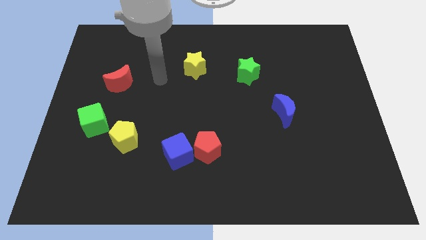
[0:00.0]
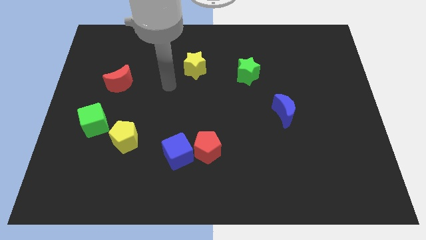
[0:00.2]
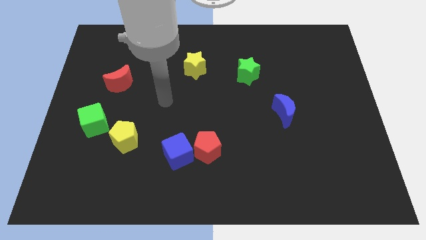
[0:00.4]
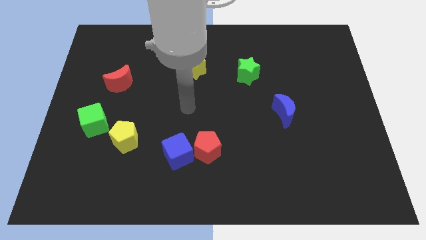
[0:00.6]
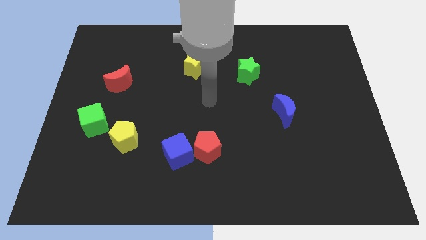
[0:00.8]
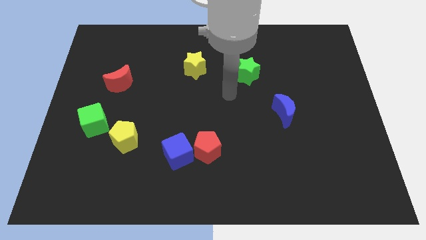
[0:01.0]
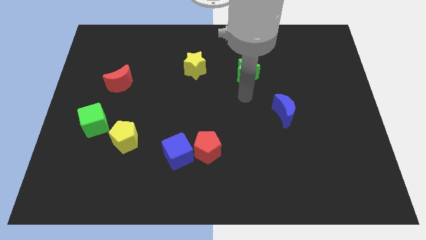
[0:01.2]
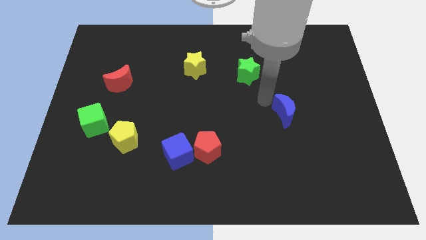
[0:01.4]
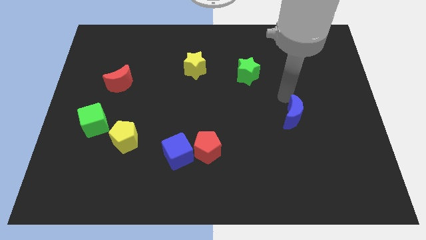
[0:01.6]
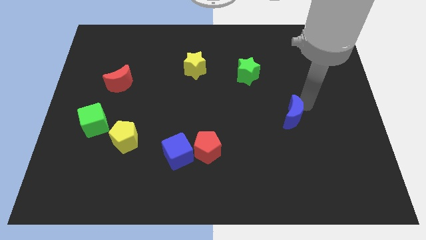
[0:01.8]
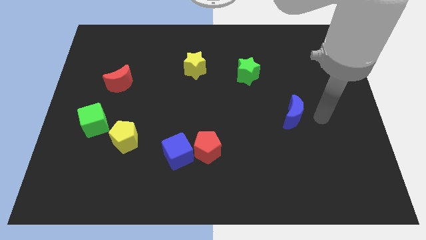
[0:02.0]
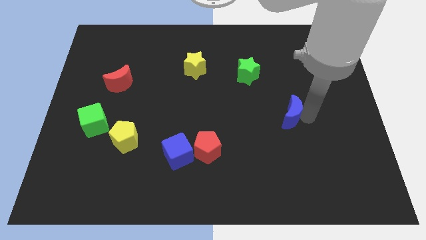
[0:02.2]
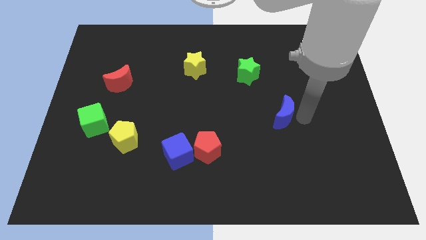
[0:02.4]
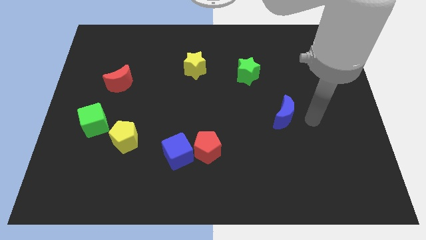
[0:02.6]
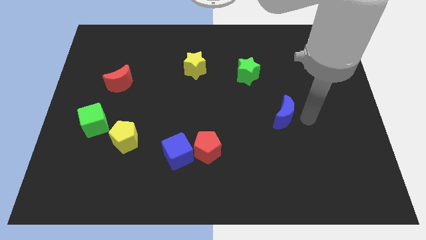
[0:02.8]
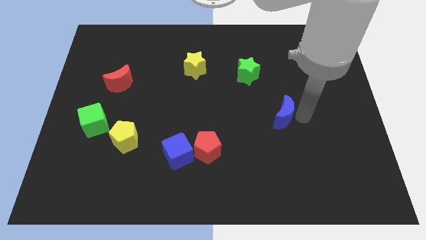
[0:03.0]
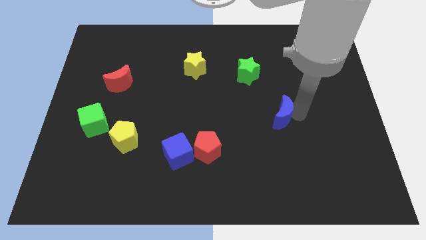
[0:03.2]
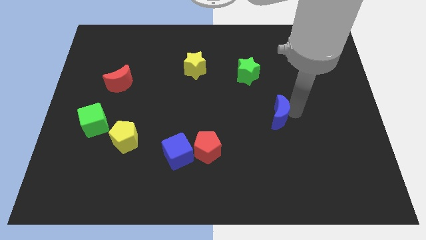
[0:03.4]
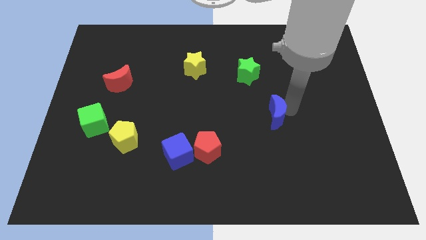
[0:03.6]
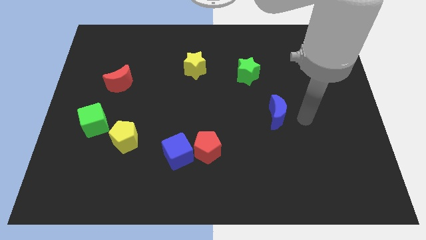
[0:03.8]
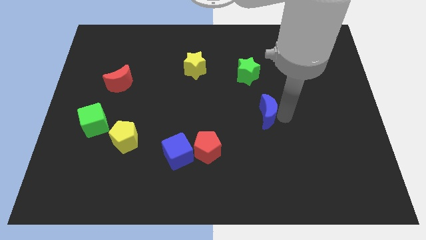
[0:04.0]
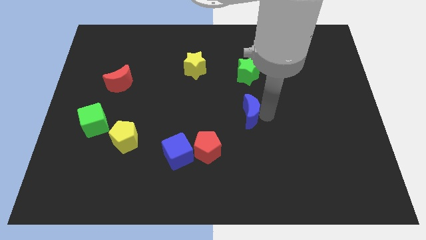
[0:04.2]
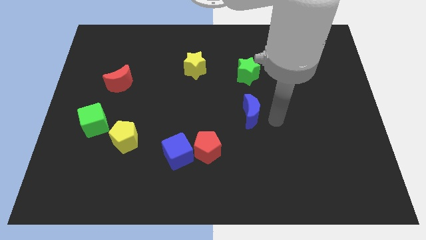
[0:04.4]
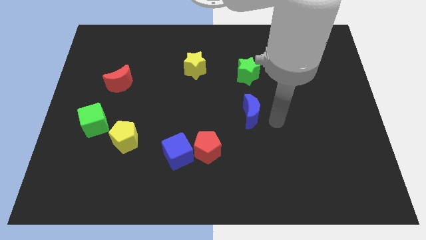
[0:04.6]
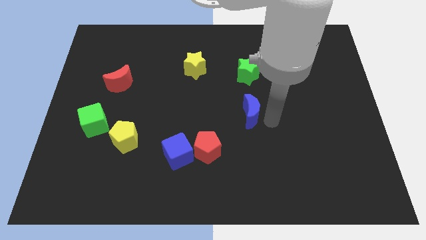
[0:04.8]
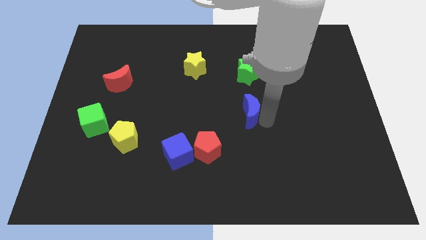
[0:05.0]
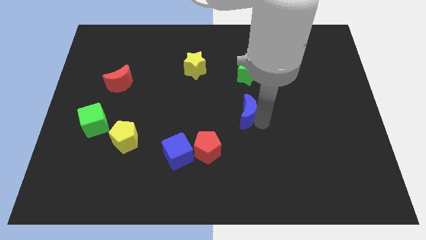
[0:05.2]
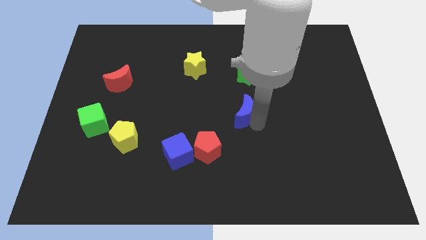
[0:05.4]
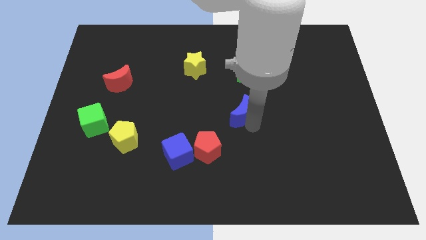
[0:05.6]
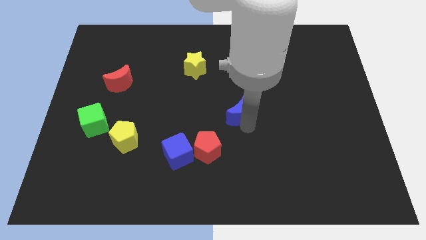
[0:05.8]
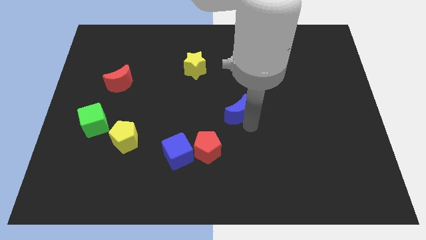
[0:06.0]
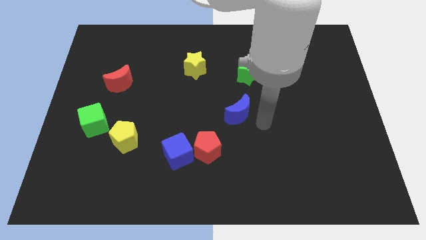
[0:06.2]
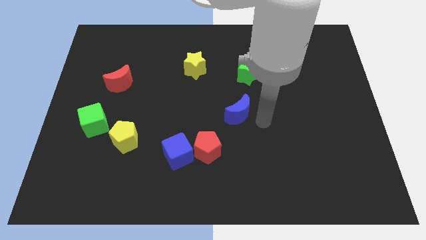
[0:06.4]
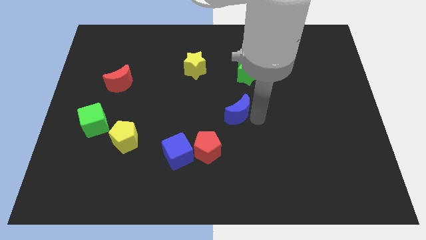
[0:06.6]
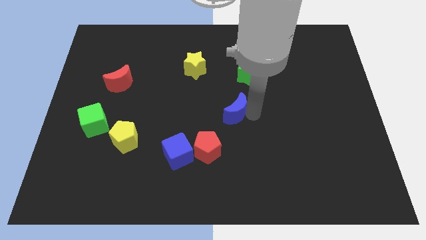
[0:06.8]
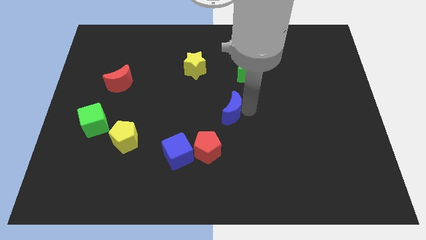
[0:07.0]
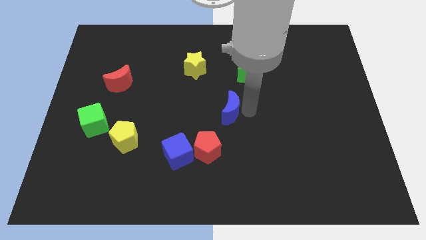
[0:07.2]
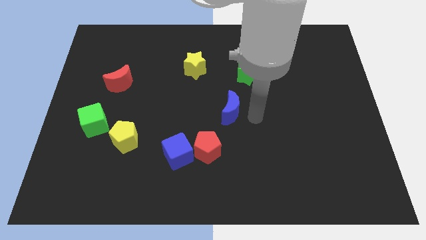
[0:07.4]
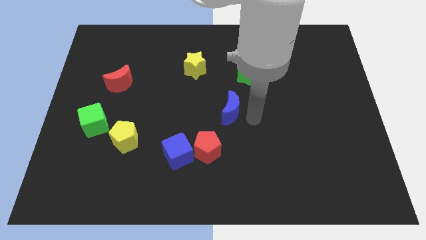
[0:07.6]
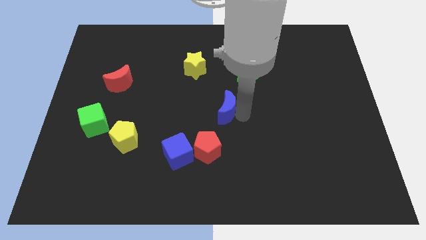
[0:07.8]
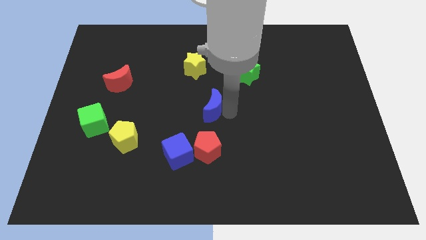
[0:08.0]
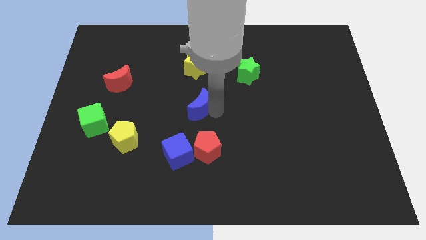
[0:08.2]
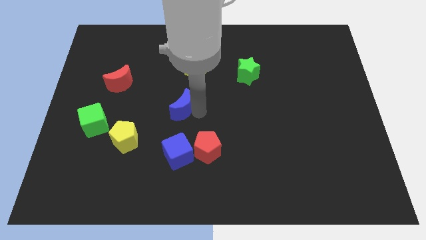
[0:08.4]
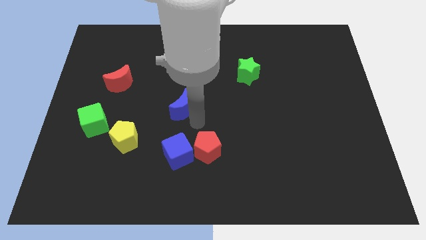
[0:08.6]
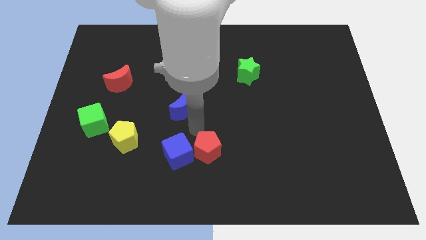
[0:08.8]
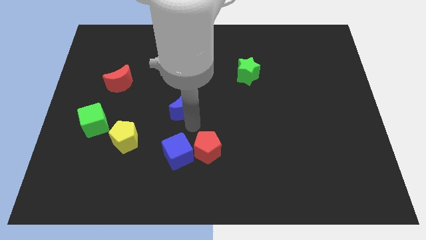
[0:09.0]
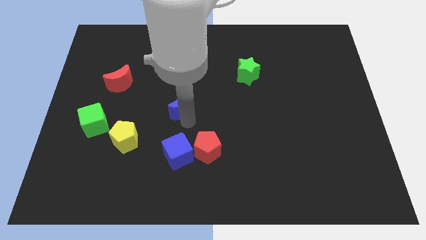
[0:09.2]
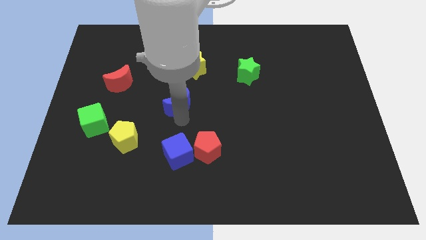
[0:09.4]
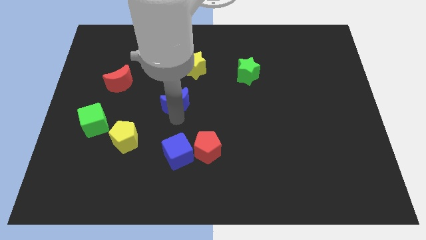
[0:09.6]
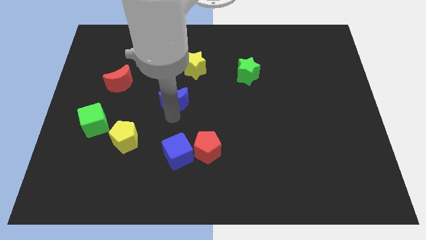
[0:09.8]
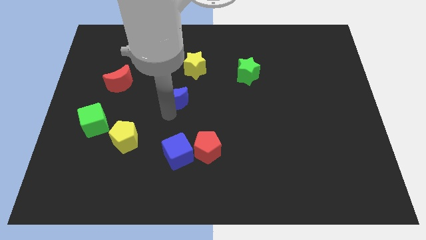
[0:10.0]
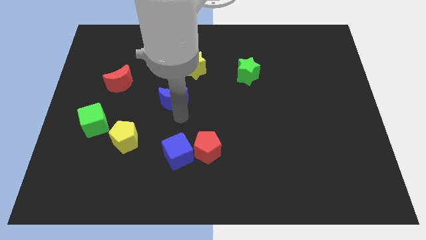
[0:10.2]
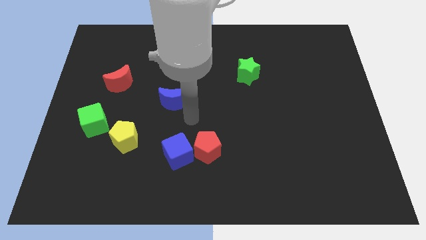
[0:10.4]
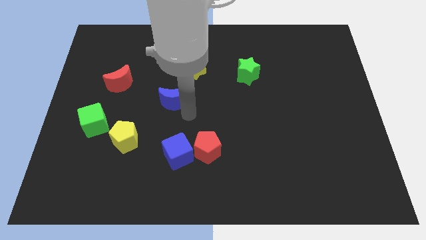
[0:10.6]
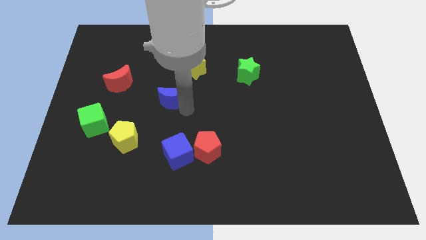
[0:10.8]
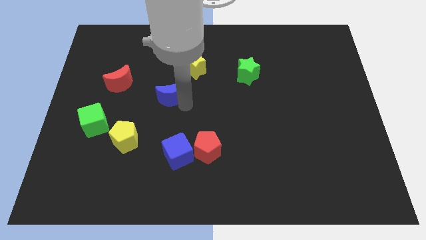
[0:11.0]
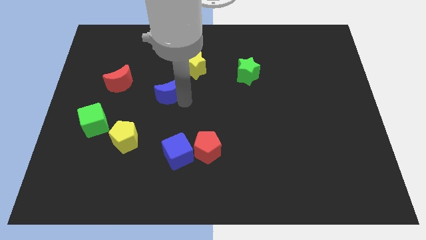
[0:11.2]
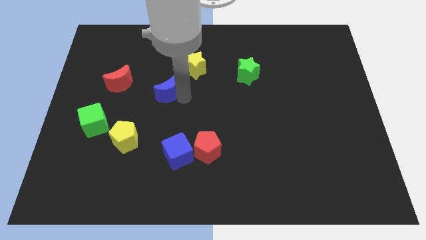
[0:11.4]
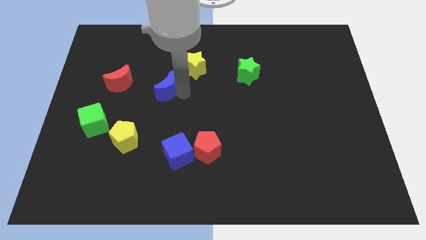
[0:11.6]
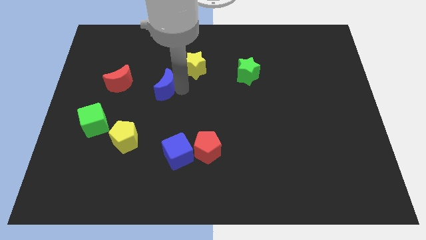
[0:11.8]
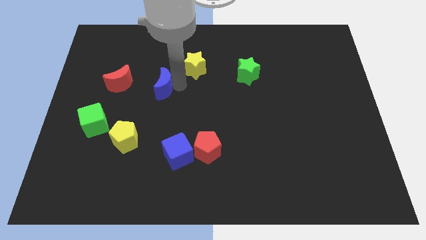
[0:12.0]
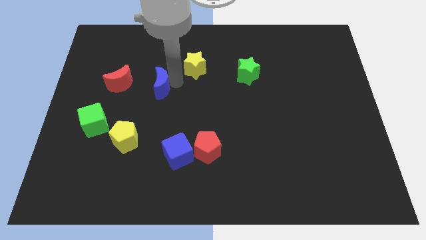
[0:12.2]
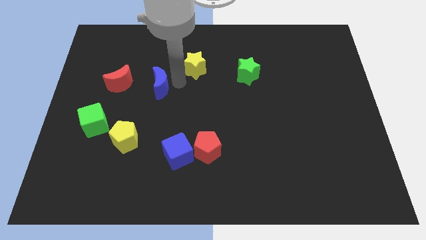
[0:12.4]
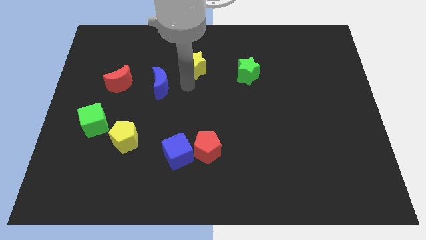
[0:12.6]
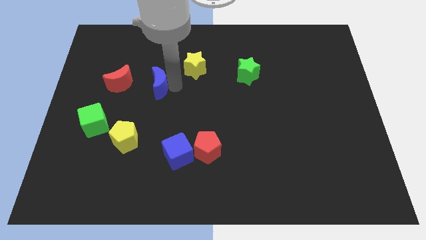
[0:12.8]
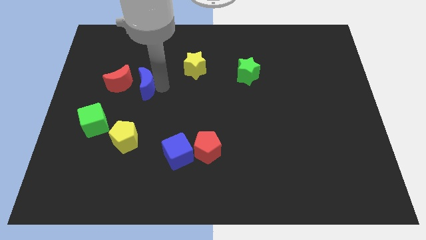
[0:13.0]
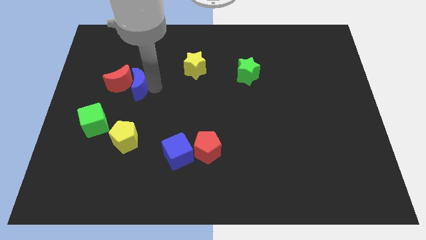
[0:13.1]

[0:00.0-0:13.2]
move the blue moon to the red moon

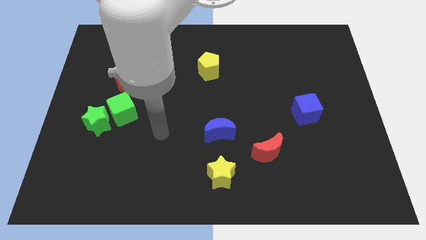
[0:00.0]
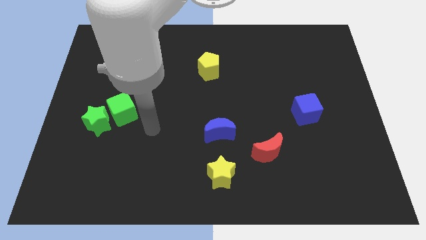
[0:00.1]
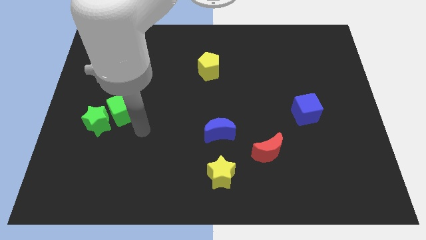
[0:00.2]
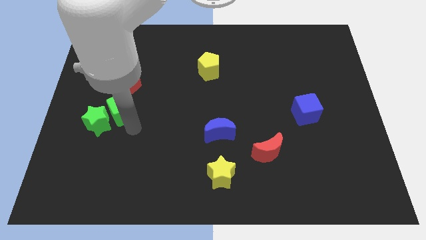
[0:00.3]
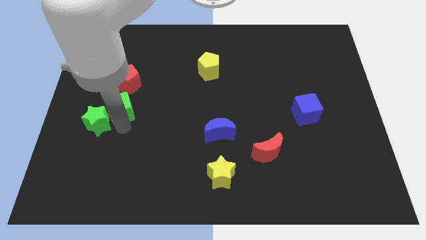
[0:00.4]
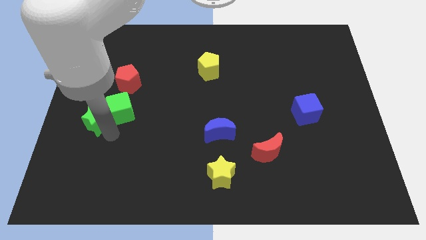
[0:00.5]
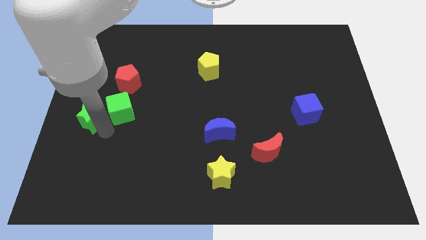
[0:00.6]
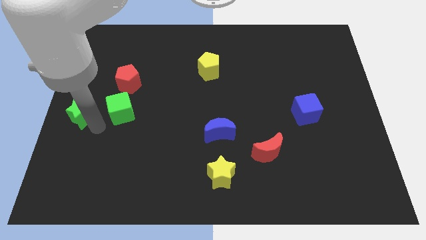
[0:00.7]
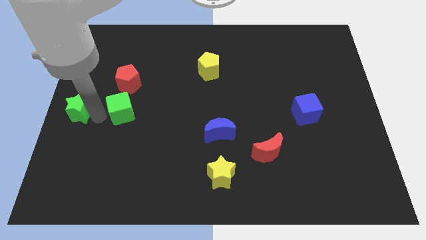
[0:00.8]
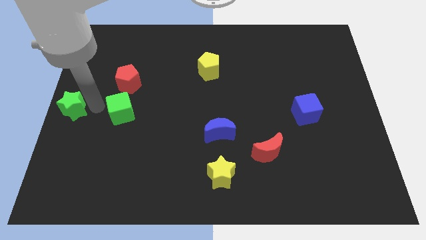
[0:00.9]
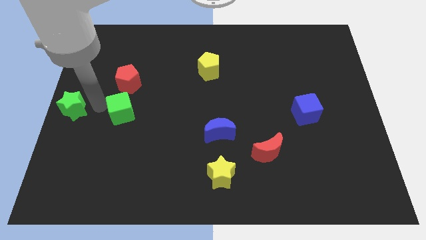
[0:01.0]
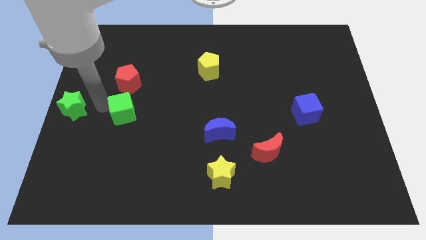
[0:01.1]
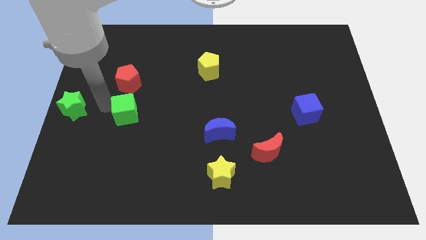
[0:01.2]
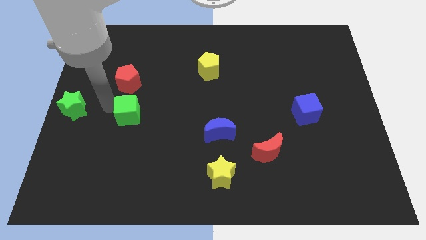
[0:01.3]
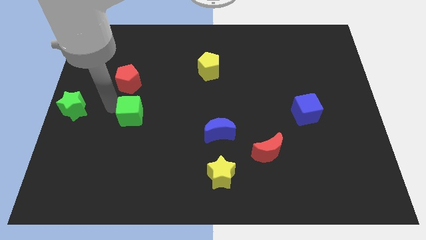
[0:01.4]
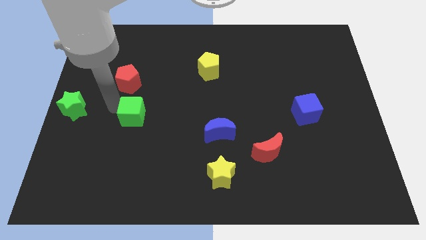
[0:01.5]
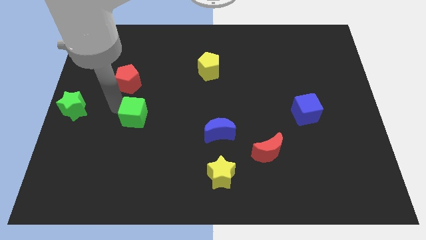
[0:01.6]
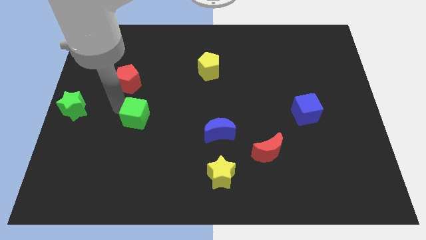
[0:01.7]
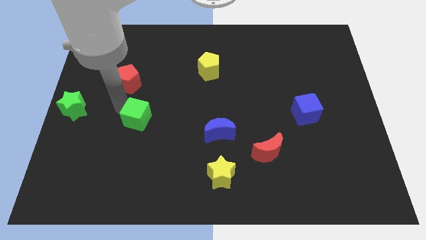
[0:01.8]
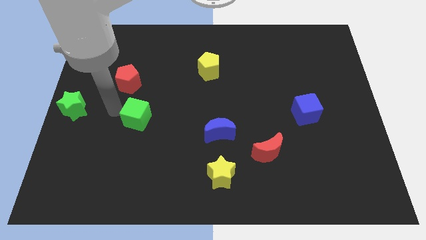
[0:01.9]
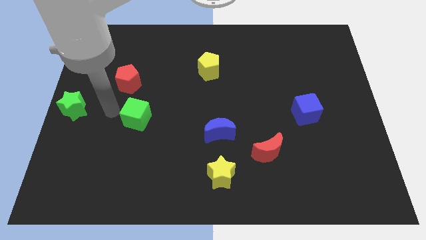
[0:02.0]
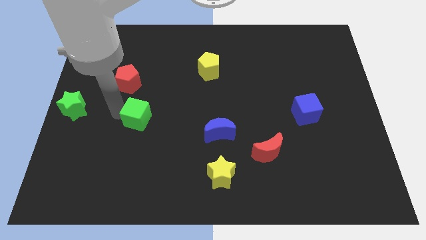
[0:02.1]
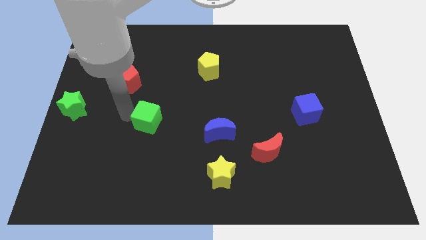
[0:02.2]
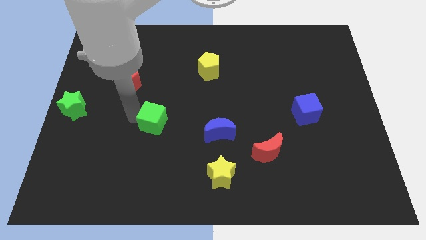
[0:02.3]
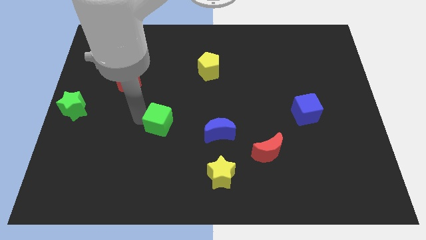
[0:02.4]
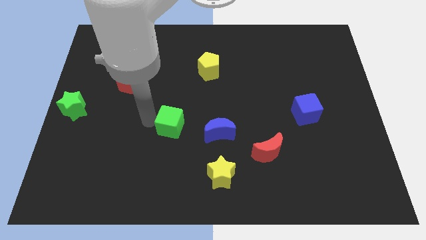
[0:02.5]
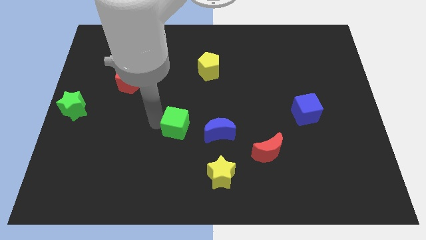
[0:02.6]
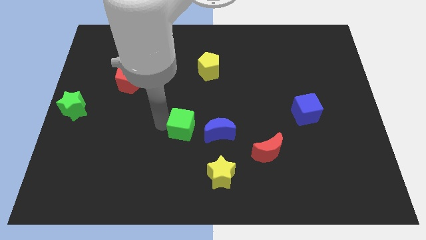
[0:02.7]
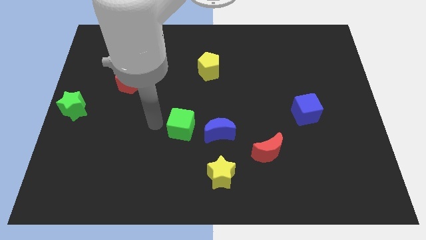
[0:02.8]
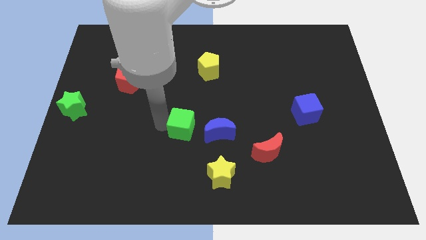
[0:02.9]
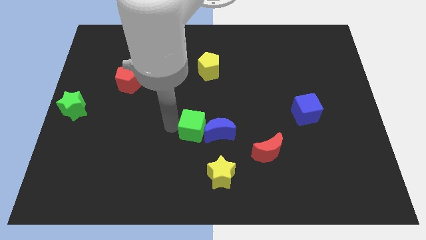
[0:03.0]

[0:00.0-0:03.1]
push the green cube towards the blue moon
